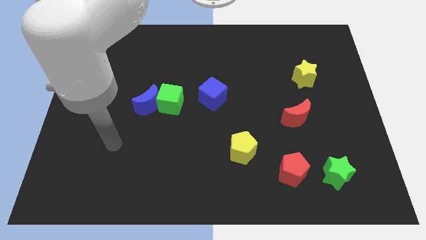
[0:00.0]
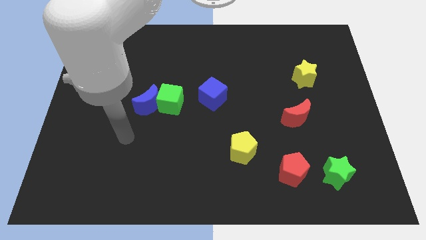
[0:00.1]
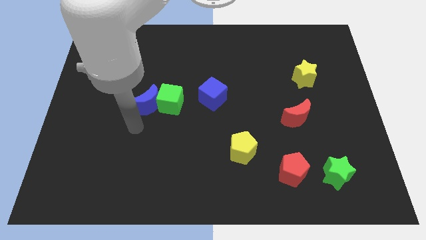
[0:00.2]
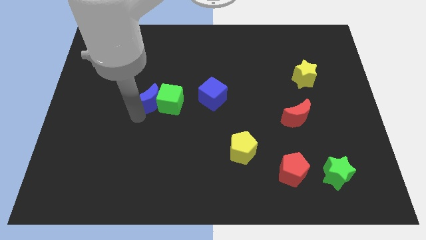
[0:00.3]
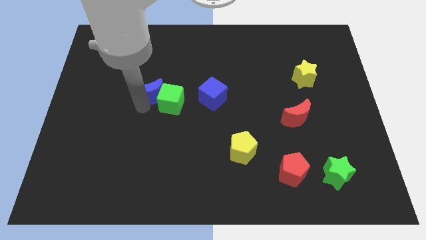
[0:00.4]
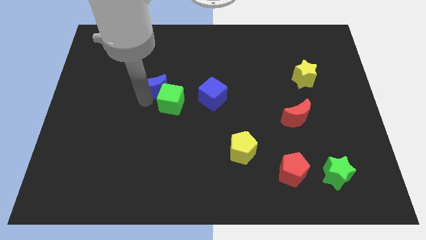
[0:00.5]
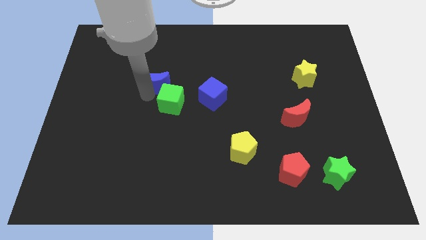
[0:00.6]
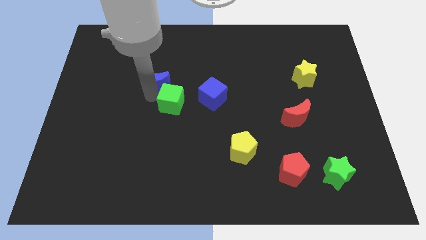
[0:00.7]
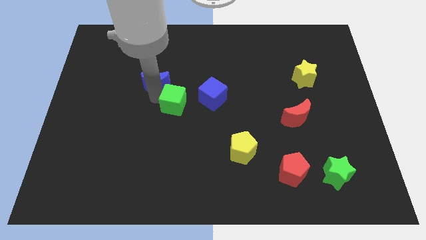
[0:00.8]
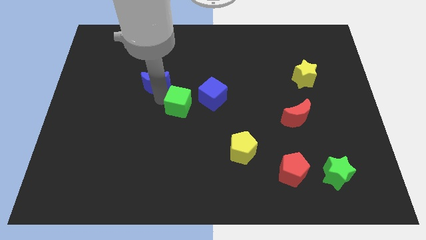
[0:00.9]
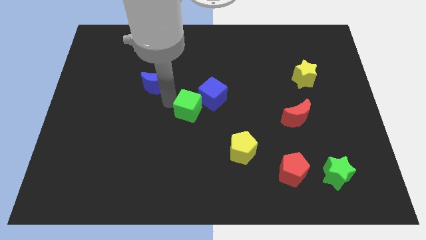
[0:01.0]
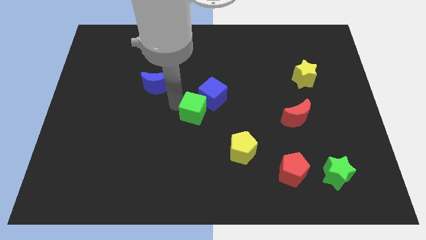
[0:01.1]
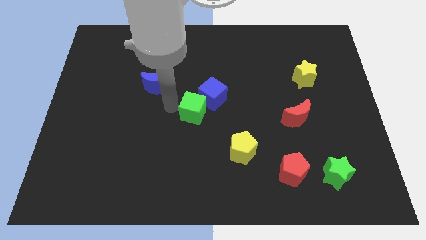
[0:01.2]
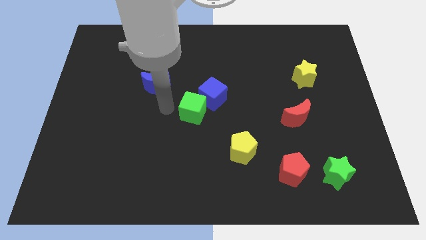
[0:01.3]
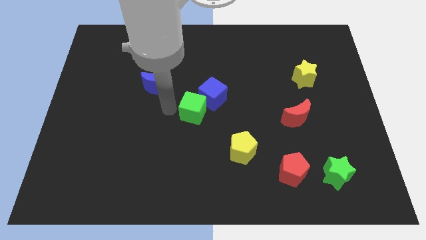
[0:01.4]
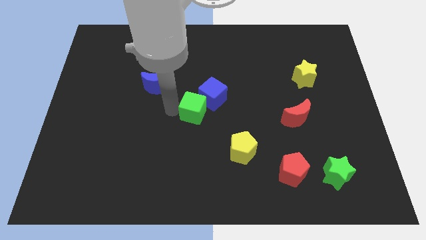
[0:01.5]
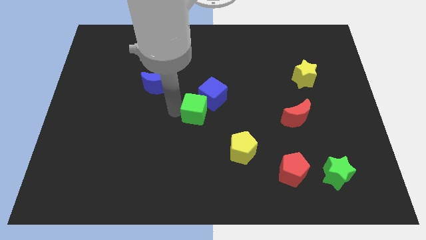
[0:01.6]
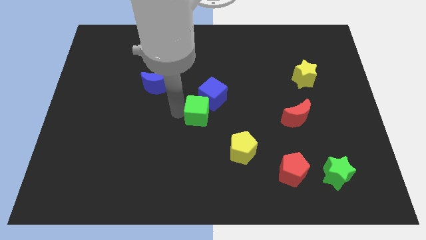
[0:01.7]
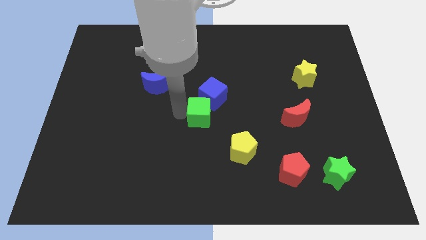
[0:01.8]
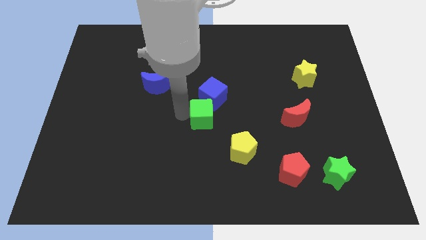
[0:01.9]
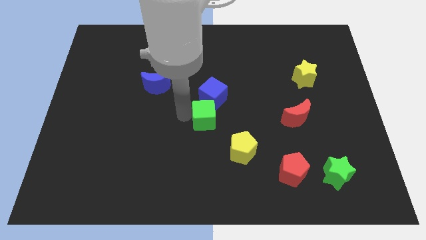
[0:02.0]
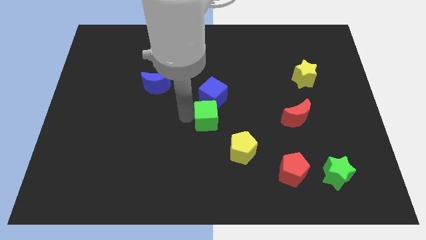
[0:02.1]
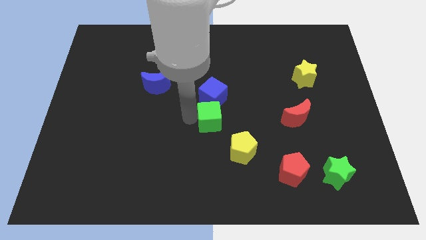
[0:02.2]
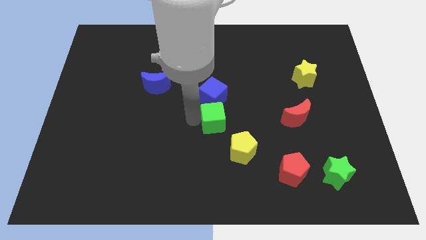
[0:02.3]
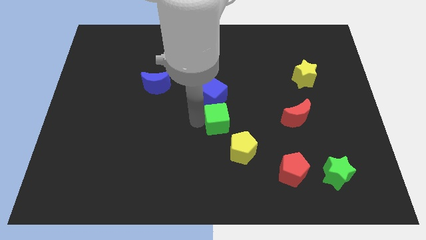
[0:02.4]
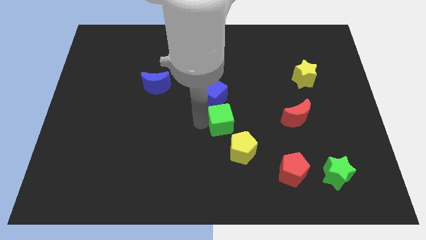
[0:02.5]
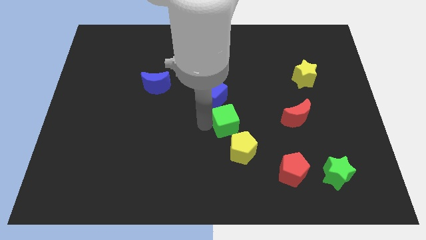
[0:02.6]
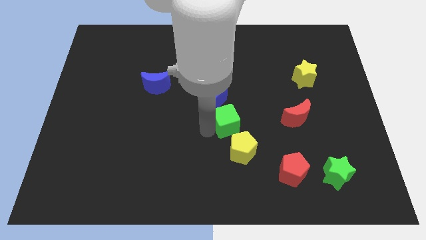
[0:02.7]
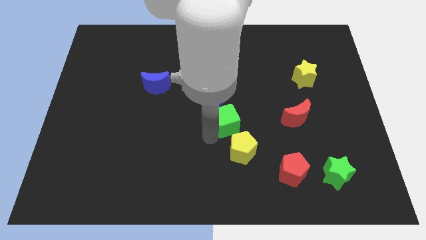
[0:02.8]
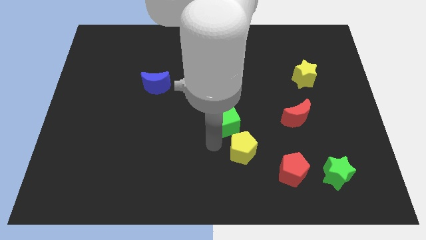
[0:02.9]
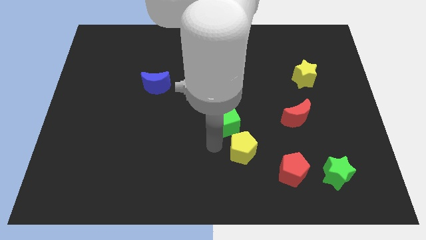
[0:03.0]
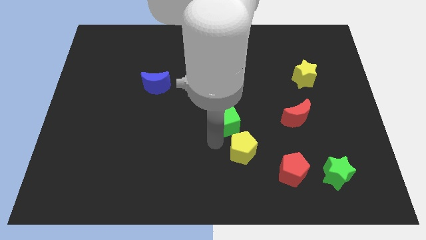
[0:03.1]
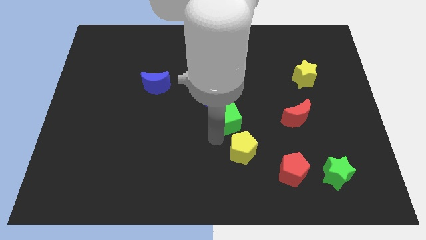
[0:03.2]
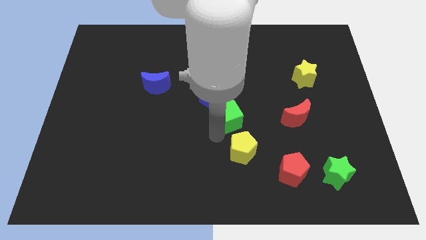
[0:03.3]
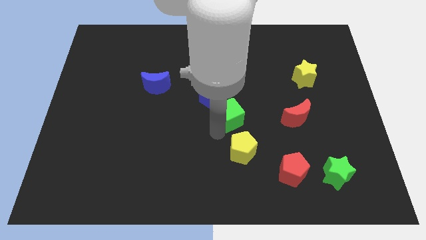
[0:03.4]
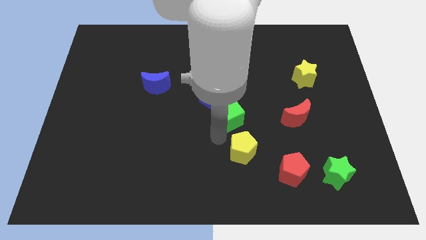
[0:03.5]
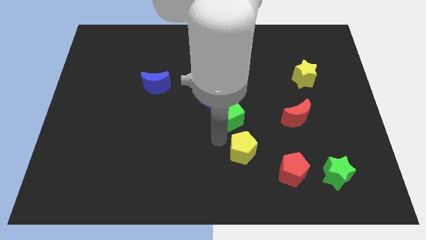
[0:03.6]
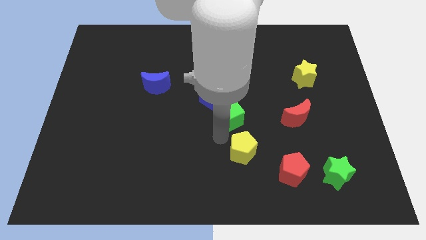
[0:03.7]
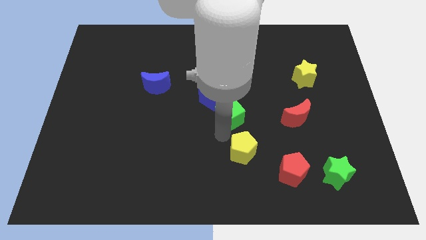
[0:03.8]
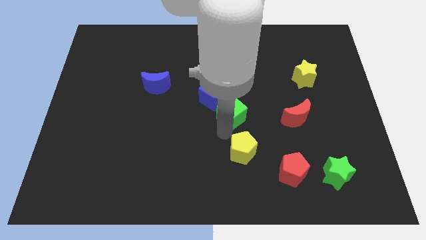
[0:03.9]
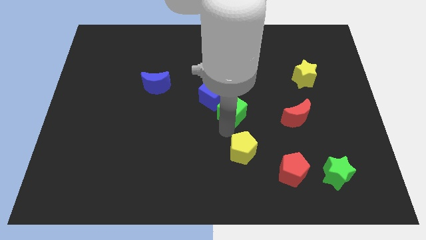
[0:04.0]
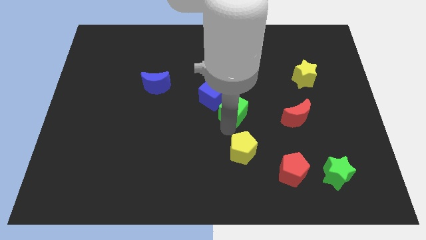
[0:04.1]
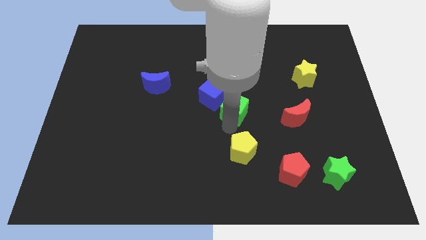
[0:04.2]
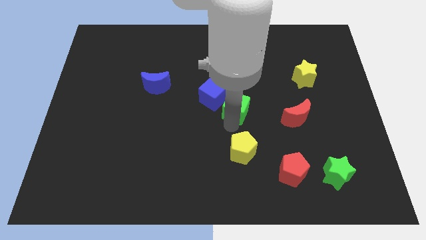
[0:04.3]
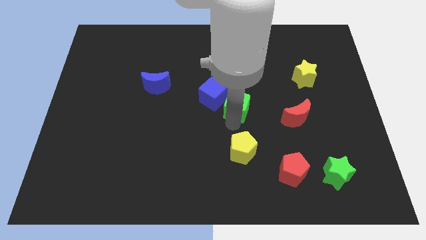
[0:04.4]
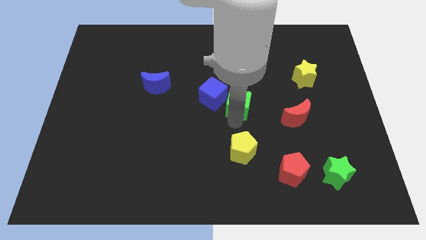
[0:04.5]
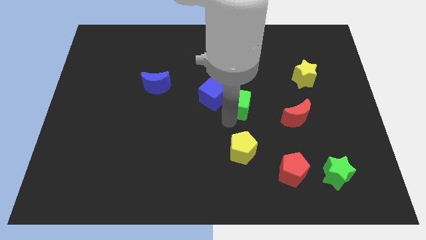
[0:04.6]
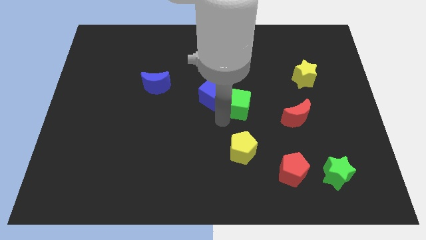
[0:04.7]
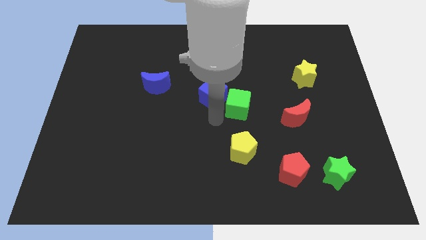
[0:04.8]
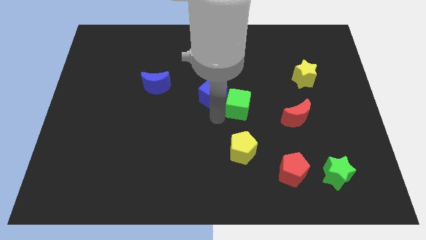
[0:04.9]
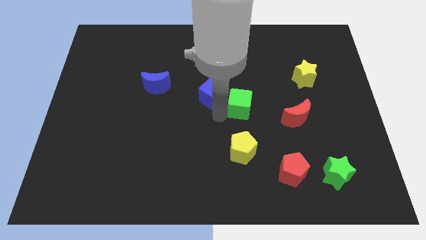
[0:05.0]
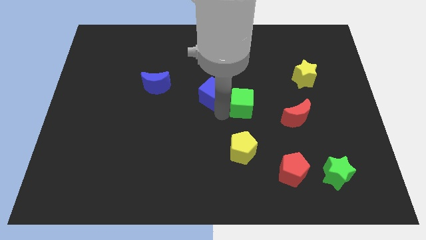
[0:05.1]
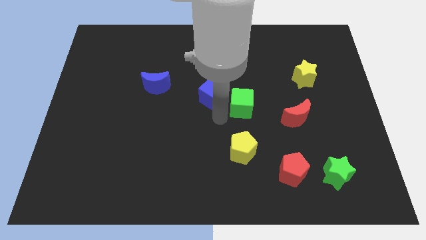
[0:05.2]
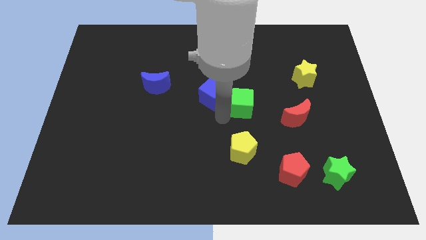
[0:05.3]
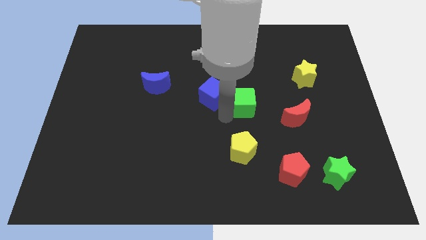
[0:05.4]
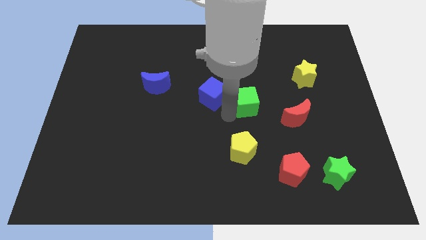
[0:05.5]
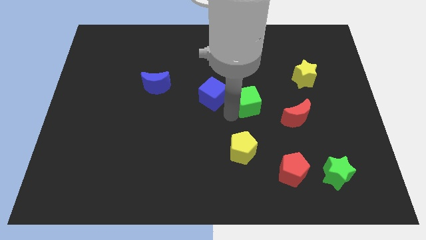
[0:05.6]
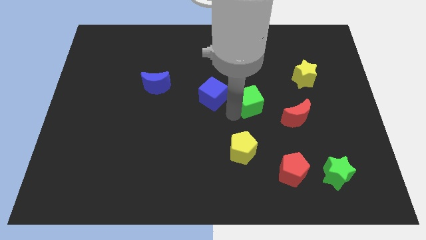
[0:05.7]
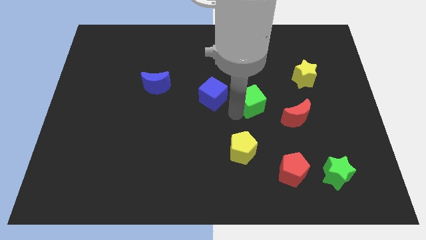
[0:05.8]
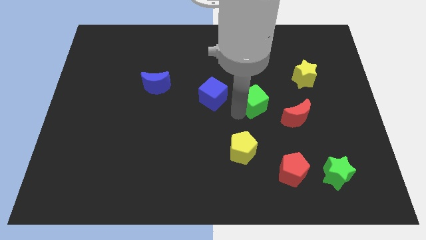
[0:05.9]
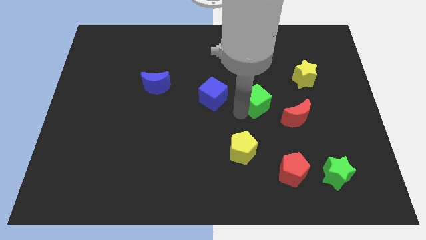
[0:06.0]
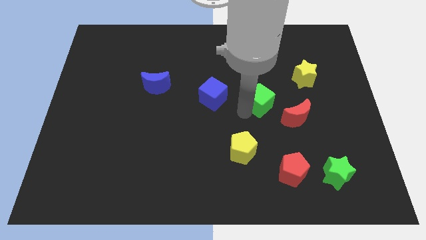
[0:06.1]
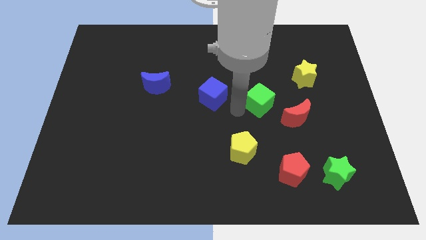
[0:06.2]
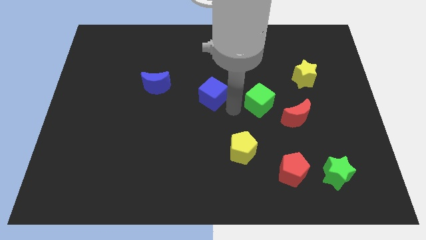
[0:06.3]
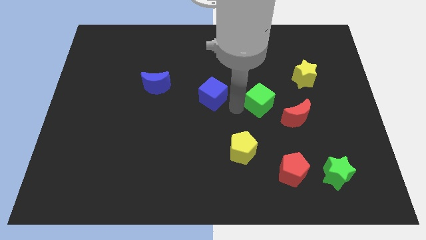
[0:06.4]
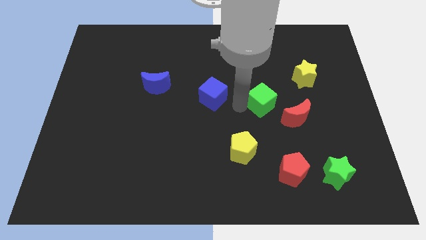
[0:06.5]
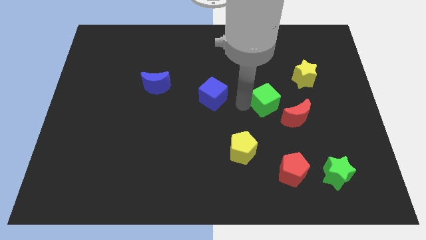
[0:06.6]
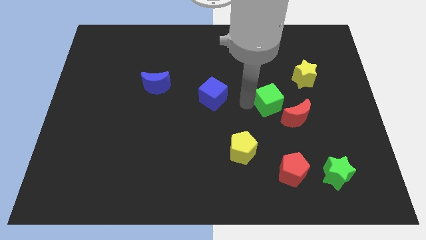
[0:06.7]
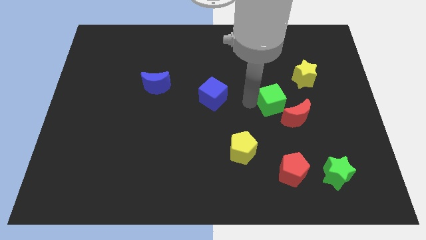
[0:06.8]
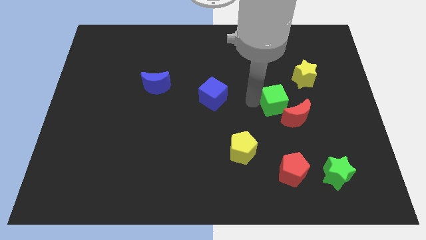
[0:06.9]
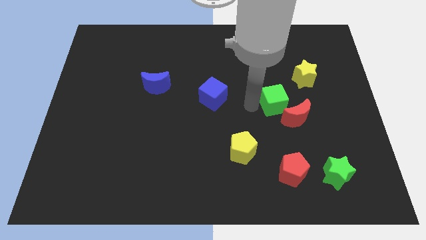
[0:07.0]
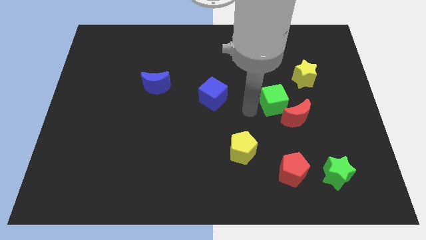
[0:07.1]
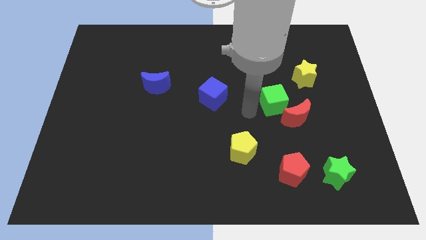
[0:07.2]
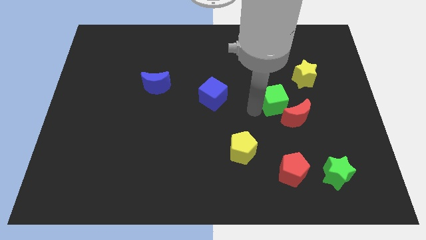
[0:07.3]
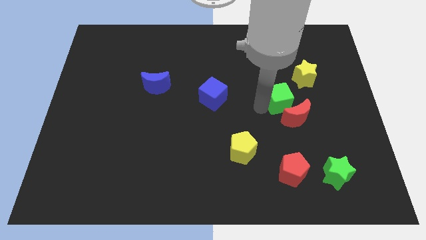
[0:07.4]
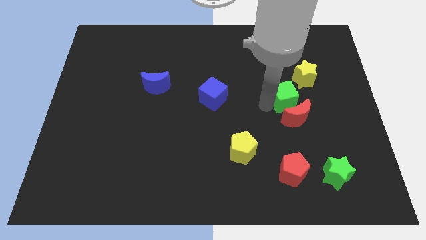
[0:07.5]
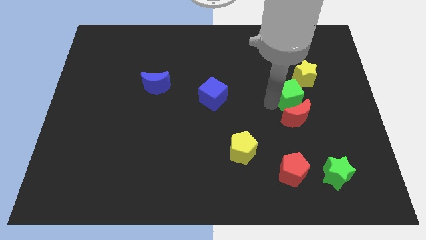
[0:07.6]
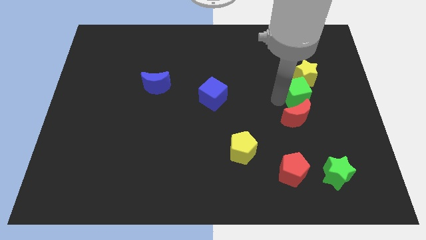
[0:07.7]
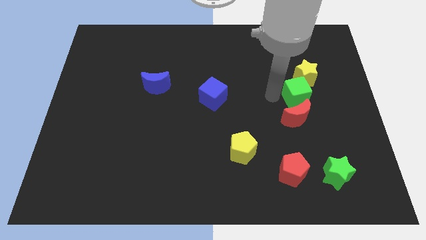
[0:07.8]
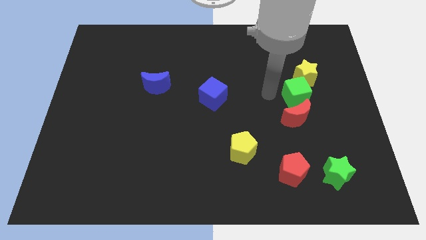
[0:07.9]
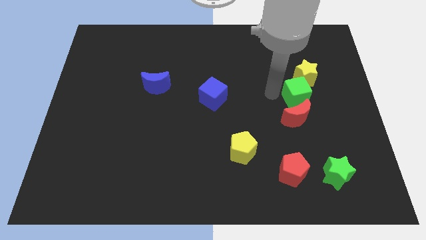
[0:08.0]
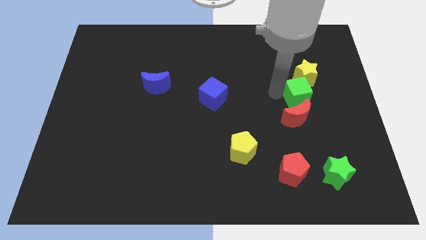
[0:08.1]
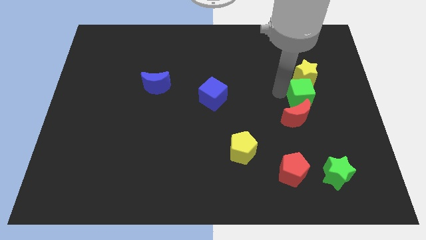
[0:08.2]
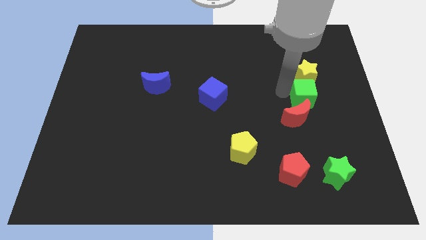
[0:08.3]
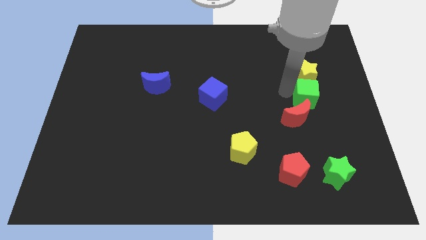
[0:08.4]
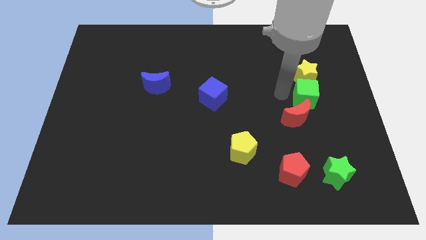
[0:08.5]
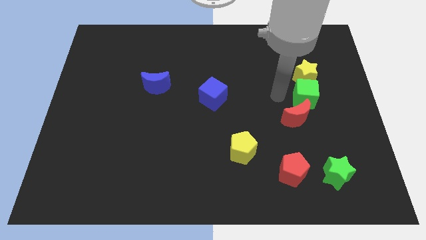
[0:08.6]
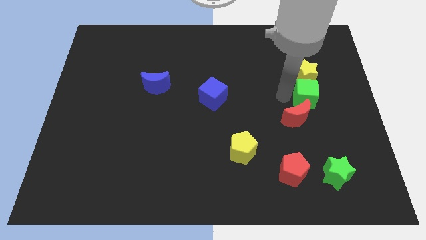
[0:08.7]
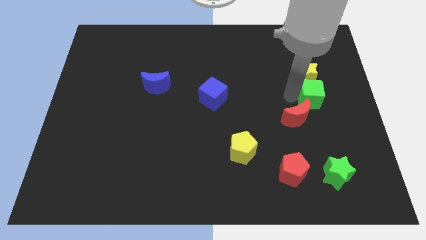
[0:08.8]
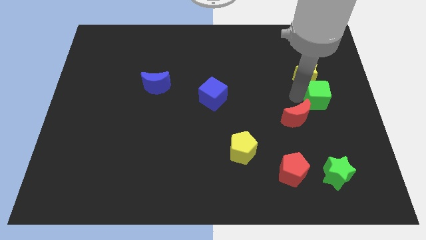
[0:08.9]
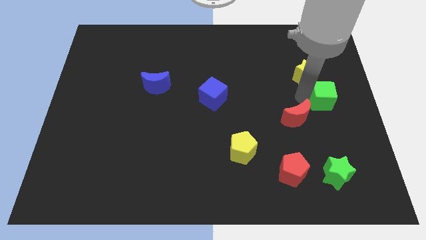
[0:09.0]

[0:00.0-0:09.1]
move the green cube to the center right
